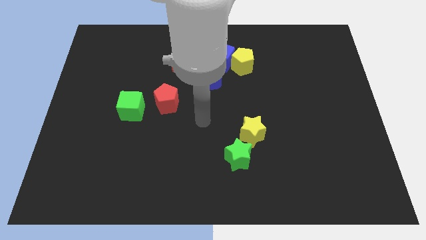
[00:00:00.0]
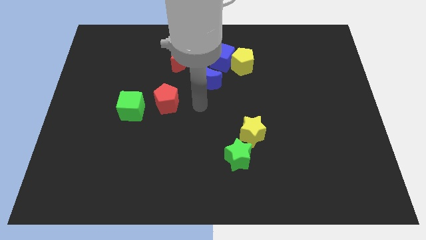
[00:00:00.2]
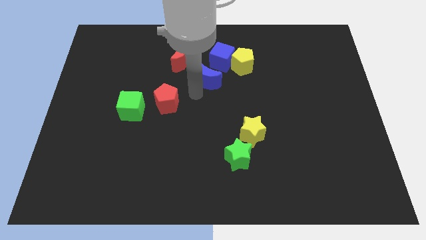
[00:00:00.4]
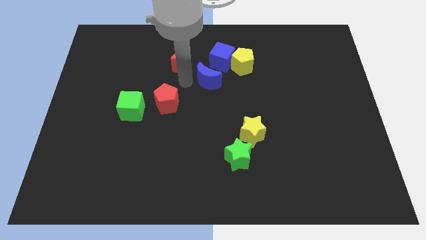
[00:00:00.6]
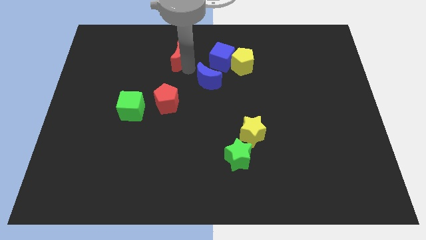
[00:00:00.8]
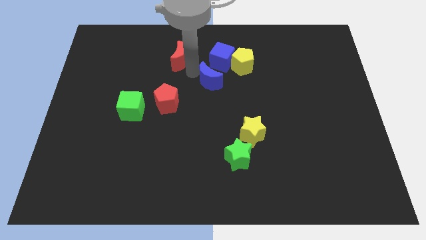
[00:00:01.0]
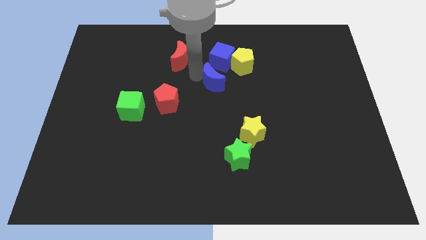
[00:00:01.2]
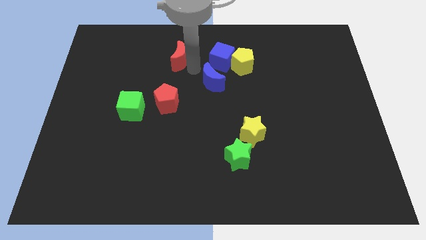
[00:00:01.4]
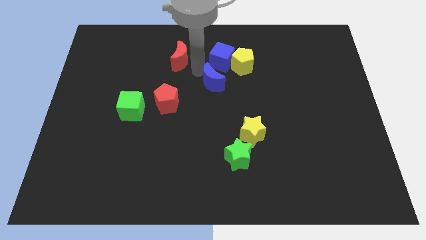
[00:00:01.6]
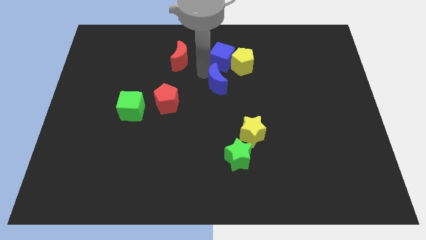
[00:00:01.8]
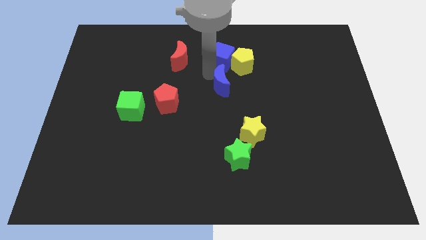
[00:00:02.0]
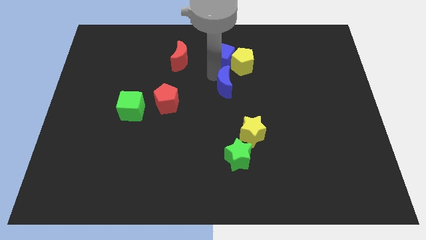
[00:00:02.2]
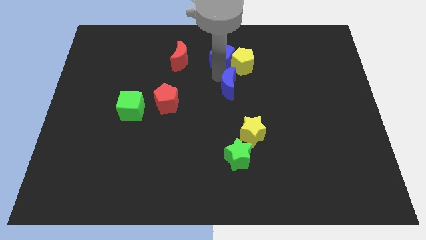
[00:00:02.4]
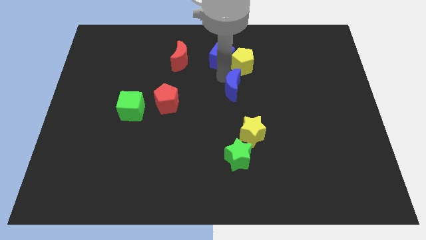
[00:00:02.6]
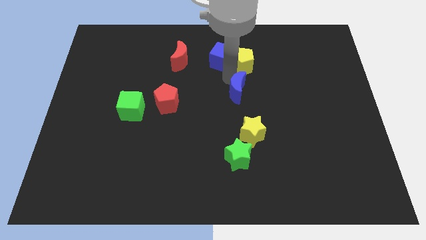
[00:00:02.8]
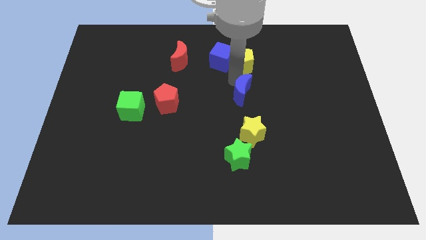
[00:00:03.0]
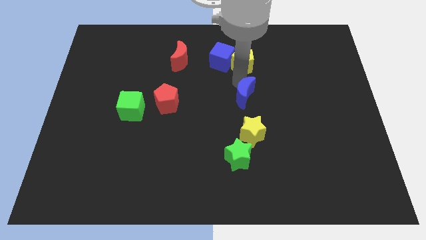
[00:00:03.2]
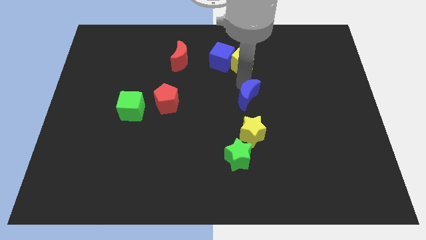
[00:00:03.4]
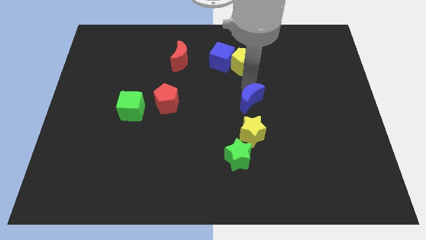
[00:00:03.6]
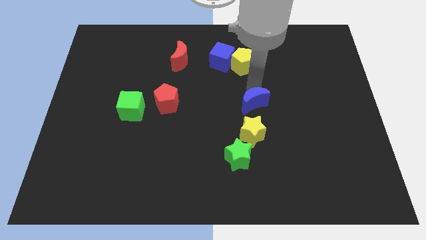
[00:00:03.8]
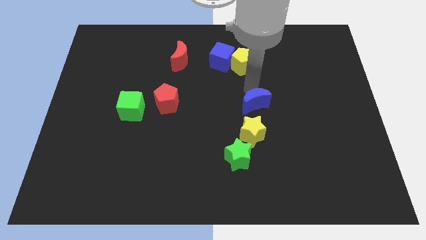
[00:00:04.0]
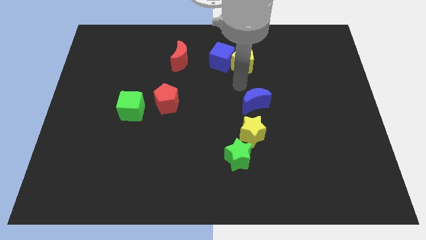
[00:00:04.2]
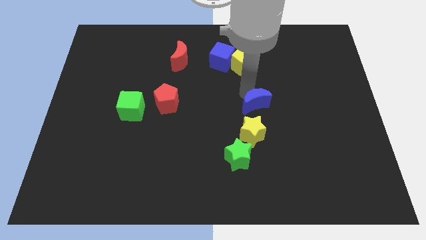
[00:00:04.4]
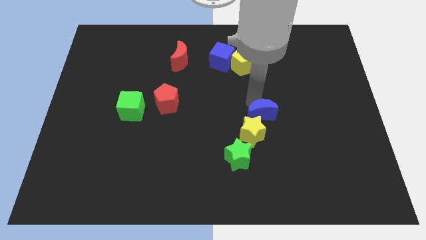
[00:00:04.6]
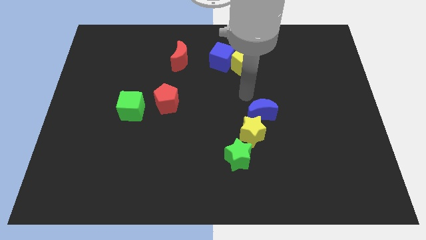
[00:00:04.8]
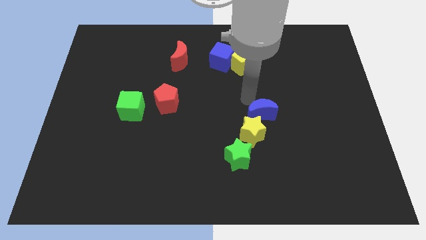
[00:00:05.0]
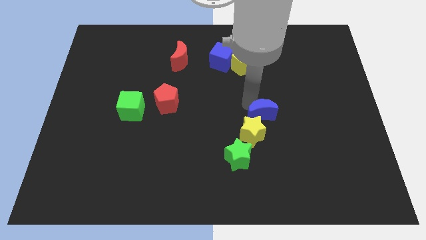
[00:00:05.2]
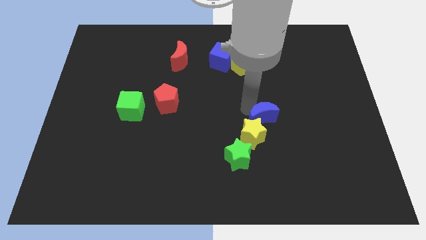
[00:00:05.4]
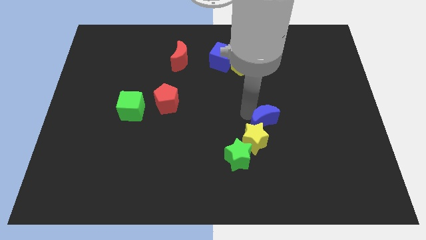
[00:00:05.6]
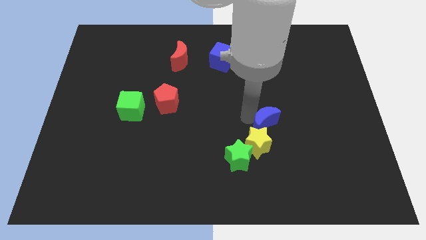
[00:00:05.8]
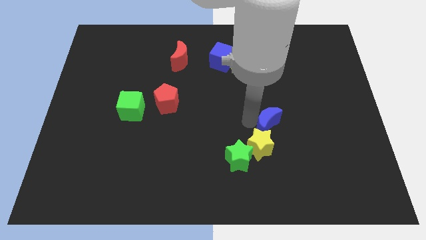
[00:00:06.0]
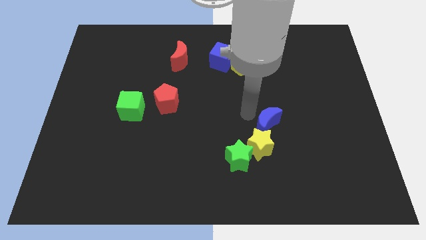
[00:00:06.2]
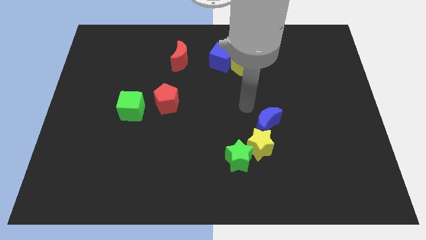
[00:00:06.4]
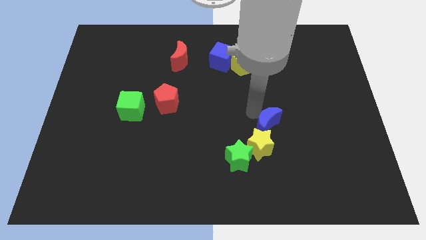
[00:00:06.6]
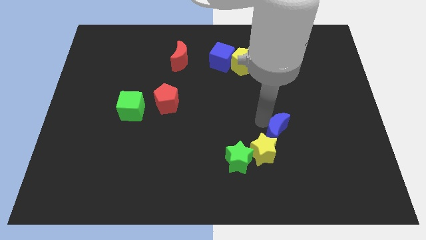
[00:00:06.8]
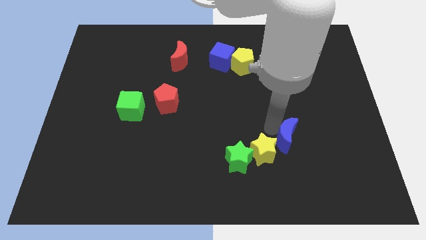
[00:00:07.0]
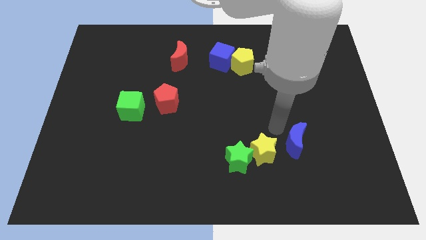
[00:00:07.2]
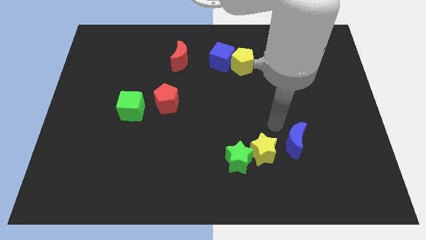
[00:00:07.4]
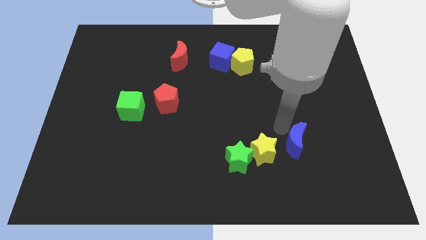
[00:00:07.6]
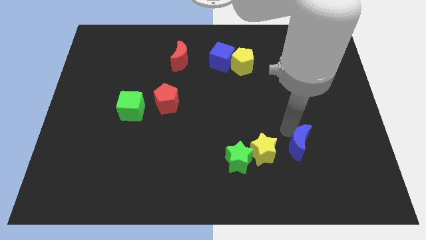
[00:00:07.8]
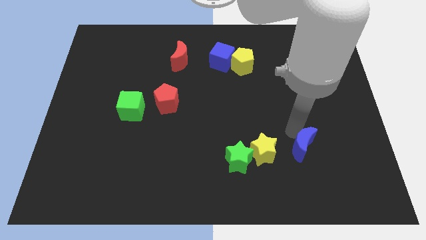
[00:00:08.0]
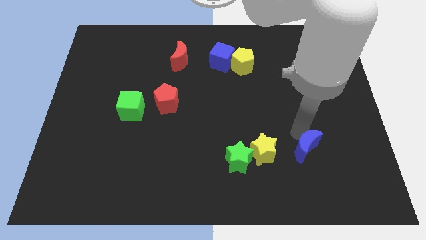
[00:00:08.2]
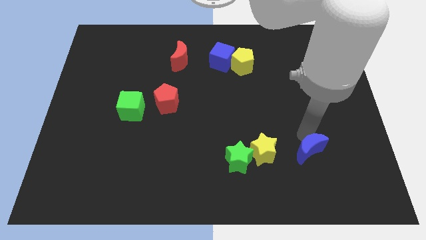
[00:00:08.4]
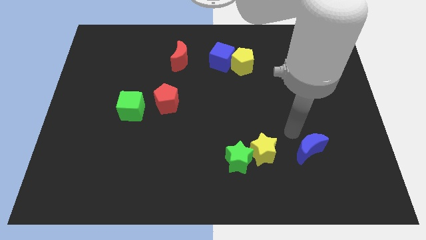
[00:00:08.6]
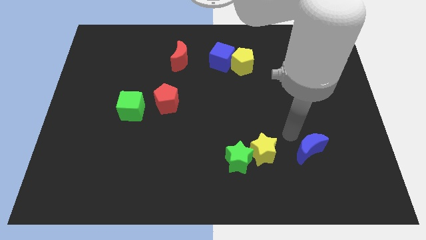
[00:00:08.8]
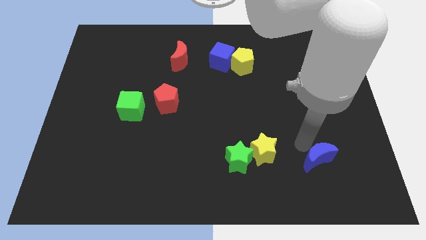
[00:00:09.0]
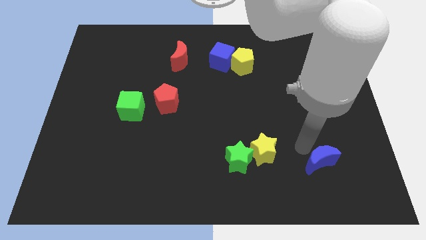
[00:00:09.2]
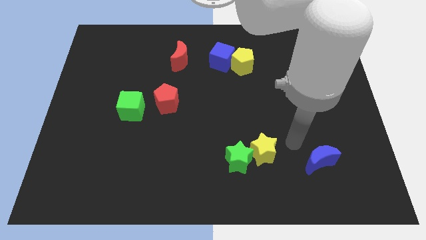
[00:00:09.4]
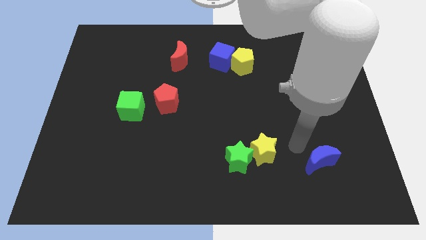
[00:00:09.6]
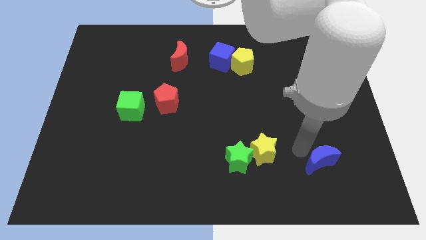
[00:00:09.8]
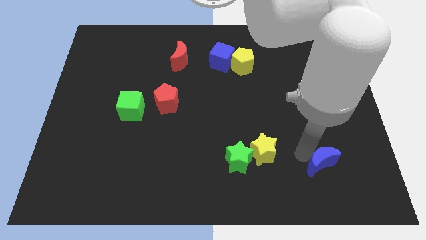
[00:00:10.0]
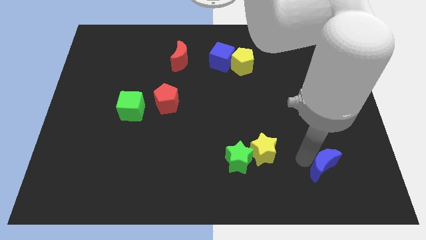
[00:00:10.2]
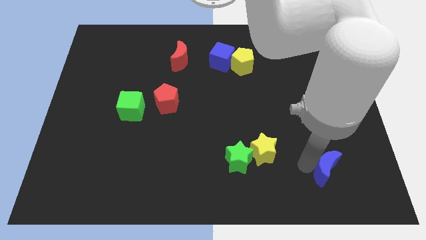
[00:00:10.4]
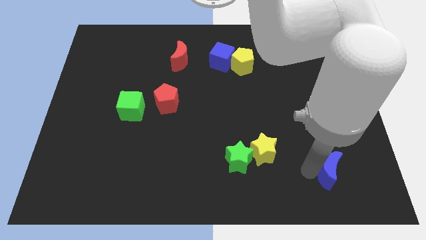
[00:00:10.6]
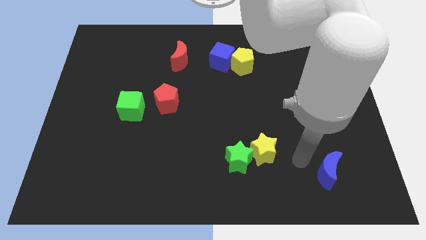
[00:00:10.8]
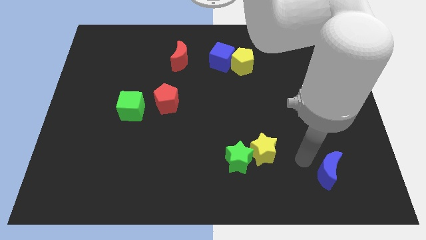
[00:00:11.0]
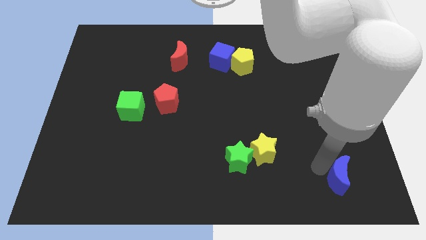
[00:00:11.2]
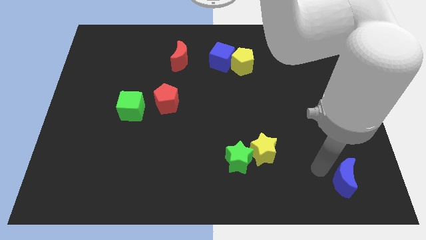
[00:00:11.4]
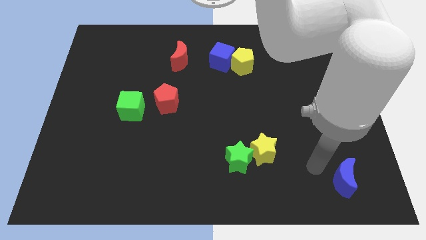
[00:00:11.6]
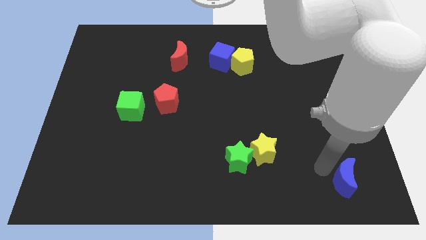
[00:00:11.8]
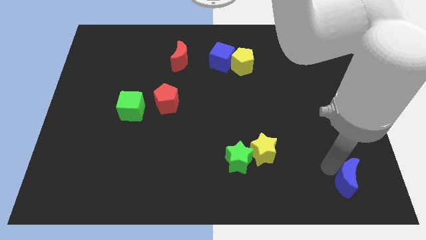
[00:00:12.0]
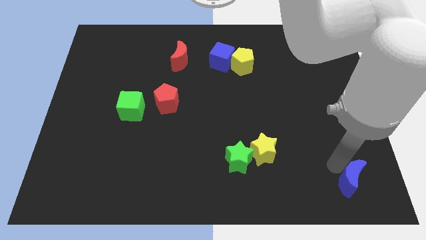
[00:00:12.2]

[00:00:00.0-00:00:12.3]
slide the blue moon to the bottom right

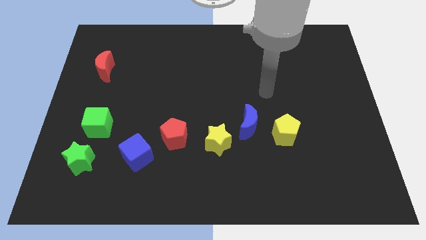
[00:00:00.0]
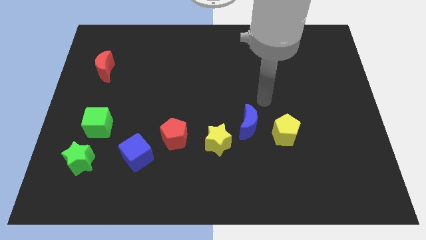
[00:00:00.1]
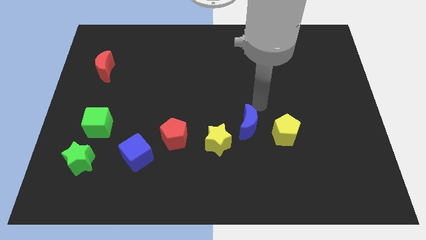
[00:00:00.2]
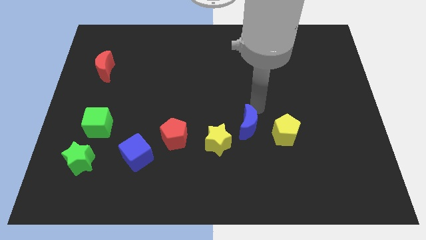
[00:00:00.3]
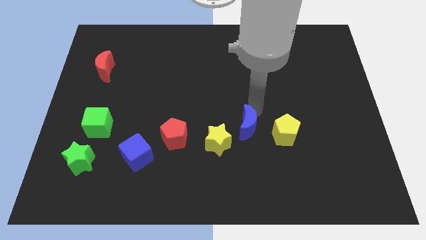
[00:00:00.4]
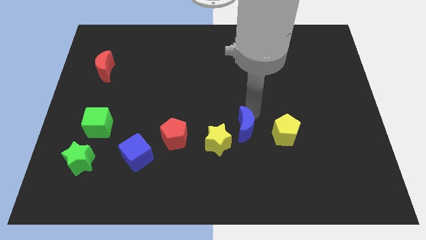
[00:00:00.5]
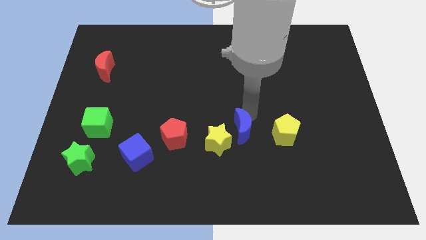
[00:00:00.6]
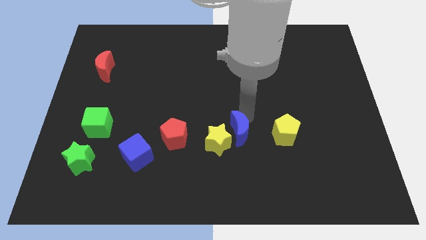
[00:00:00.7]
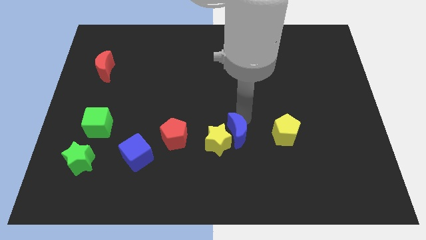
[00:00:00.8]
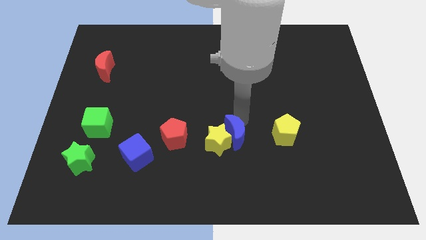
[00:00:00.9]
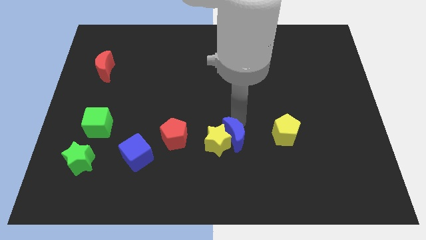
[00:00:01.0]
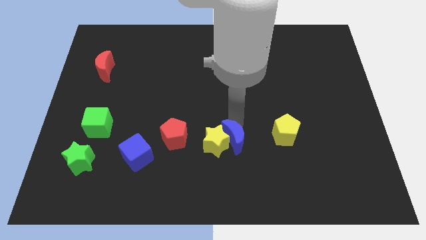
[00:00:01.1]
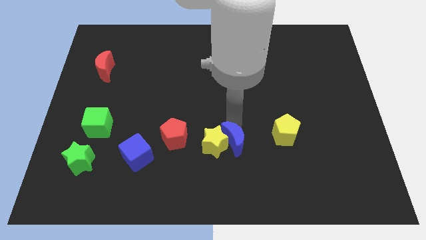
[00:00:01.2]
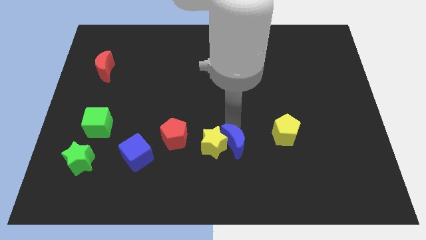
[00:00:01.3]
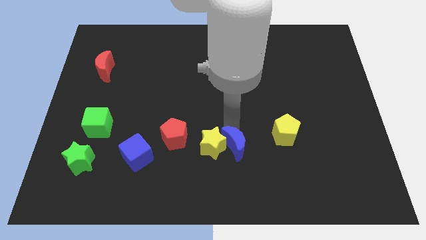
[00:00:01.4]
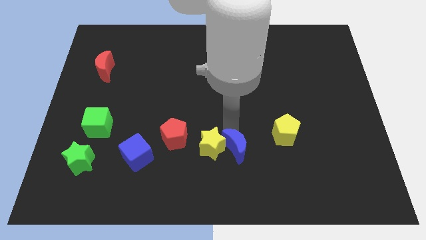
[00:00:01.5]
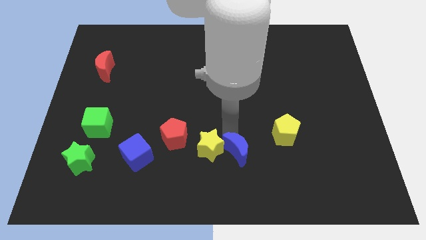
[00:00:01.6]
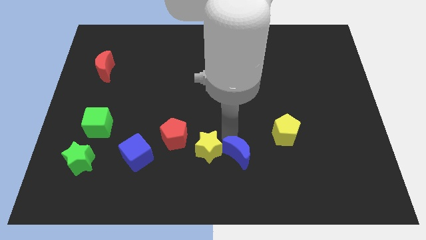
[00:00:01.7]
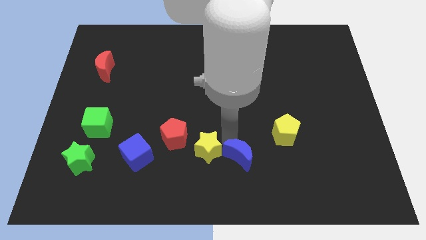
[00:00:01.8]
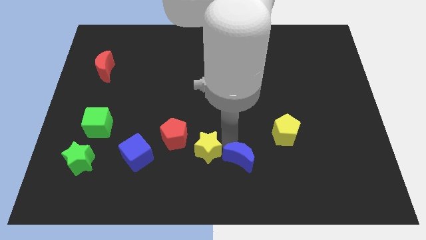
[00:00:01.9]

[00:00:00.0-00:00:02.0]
slide the blue moon to the bottom
